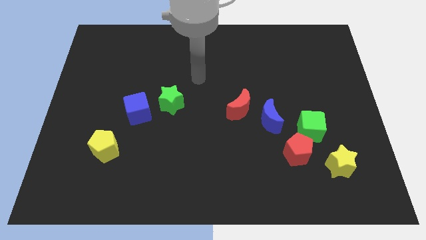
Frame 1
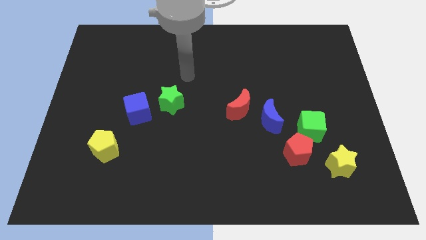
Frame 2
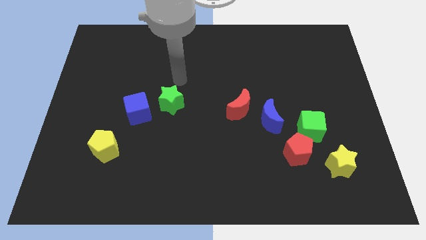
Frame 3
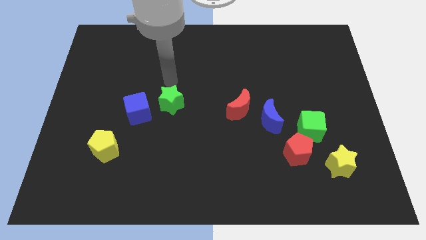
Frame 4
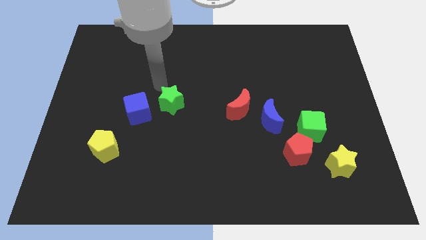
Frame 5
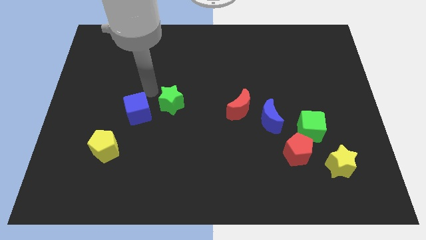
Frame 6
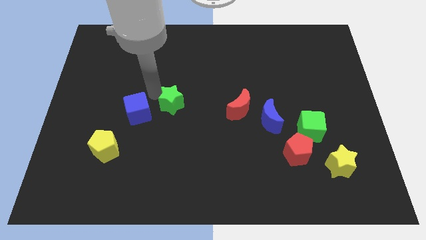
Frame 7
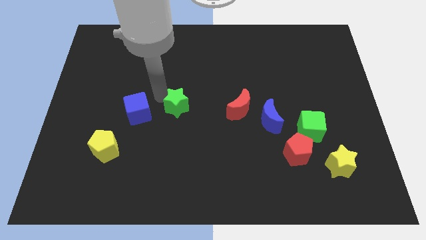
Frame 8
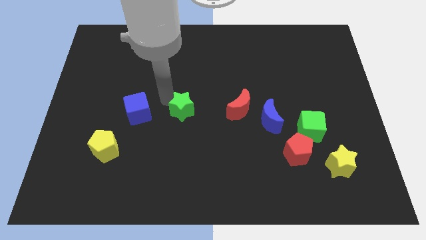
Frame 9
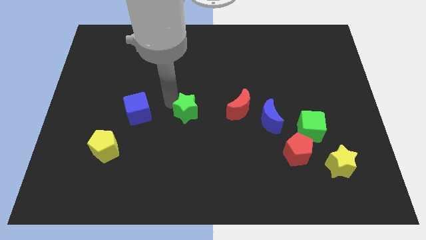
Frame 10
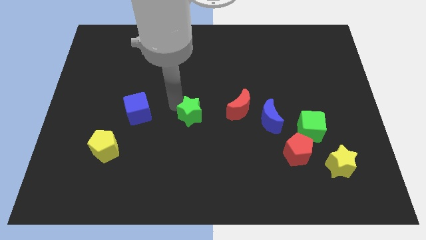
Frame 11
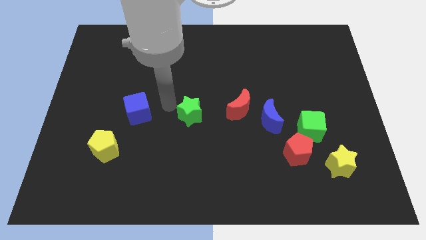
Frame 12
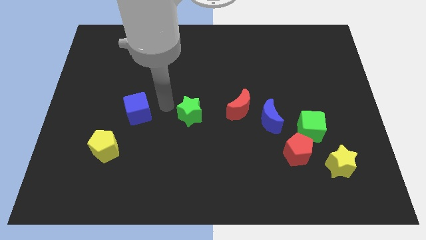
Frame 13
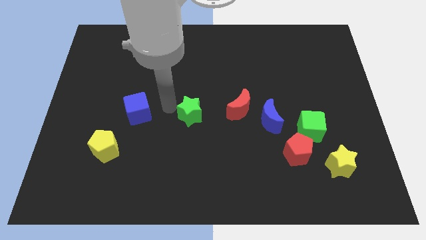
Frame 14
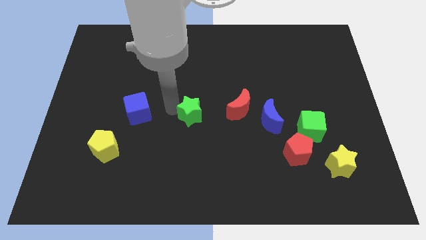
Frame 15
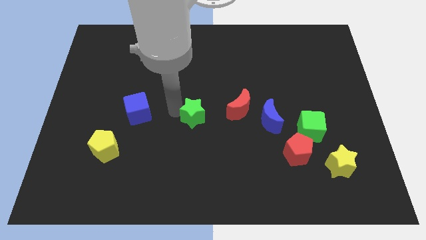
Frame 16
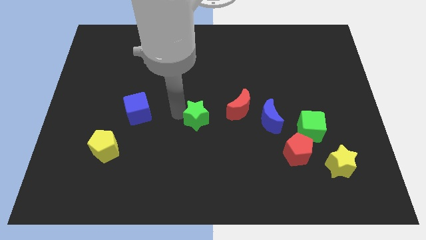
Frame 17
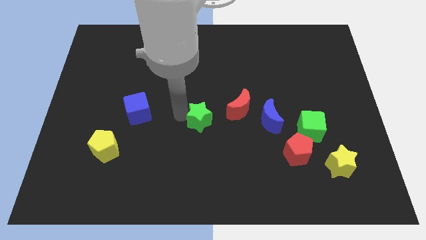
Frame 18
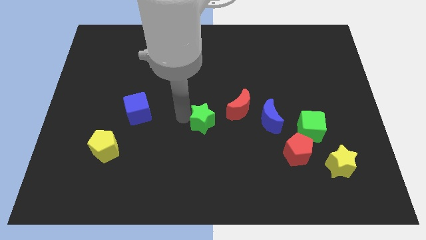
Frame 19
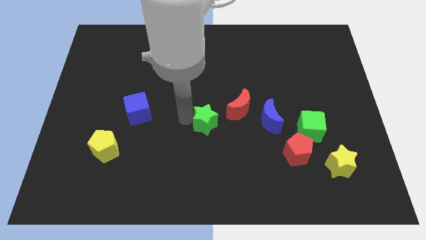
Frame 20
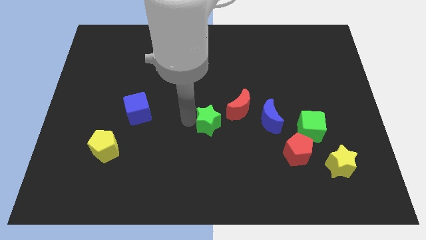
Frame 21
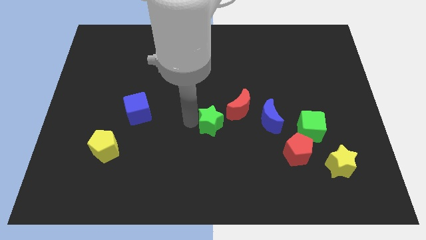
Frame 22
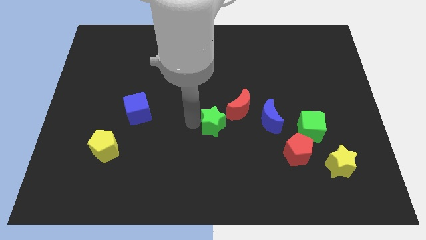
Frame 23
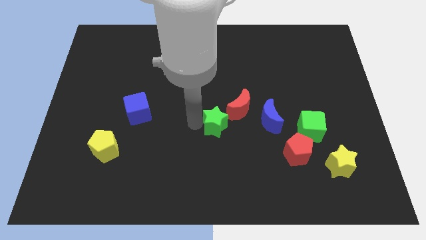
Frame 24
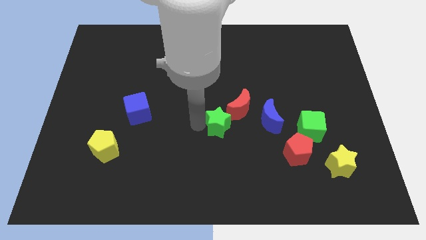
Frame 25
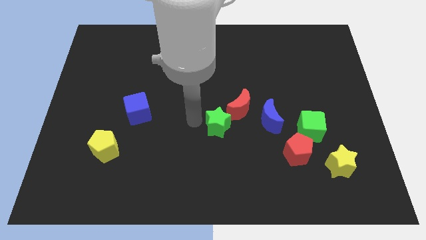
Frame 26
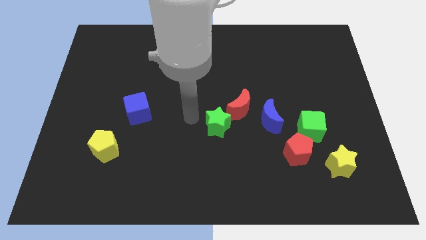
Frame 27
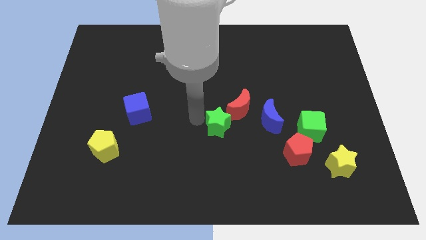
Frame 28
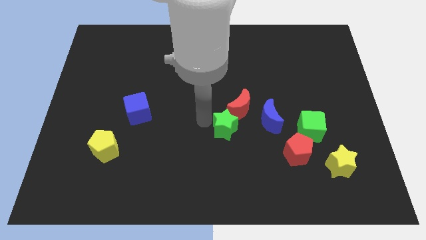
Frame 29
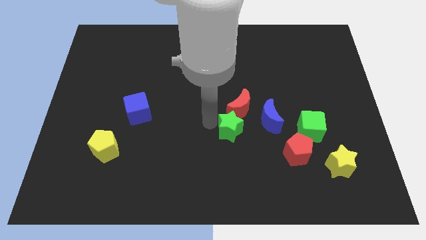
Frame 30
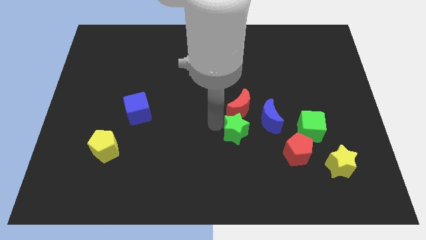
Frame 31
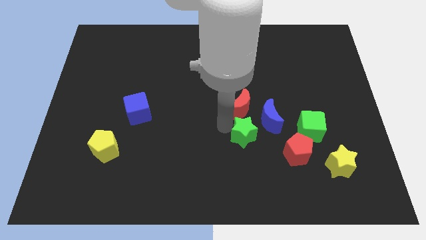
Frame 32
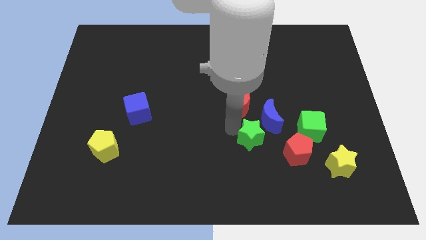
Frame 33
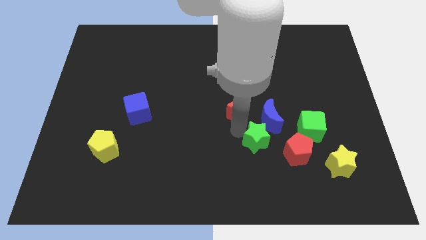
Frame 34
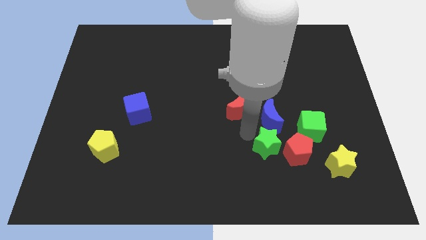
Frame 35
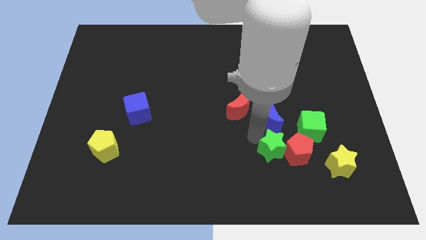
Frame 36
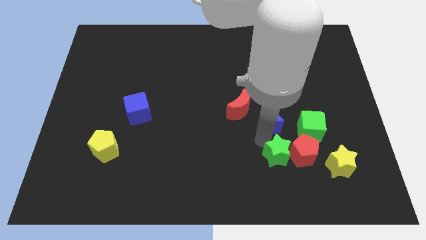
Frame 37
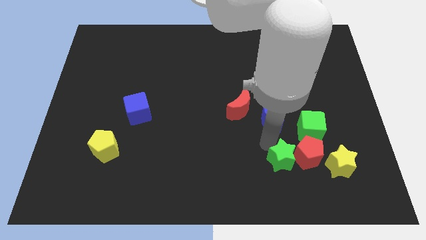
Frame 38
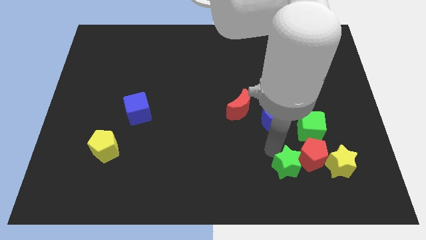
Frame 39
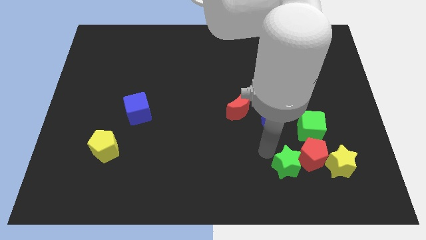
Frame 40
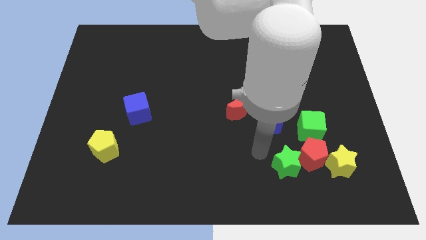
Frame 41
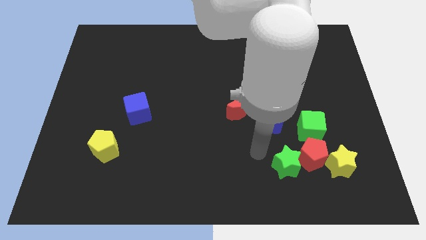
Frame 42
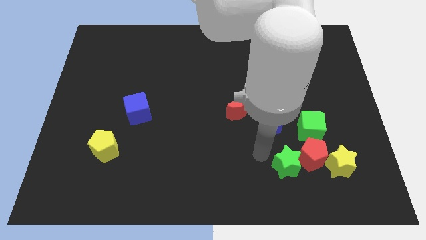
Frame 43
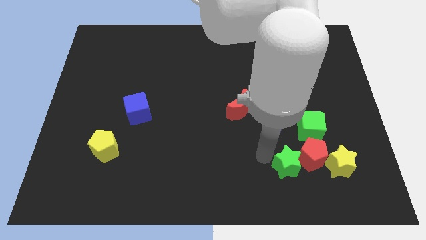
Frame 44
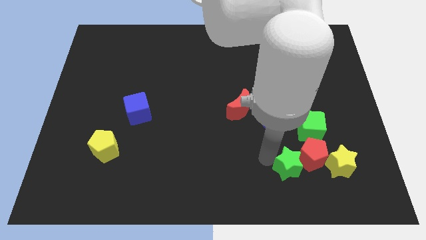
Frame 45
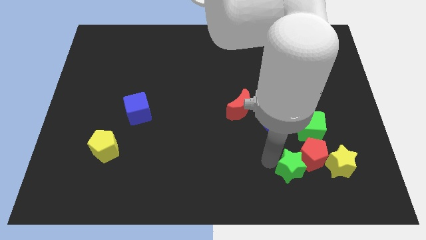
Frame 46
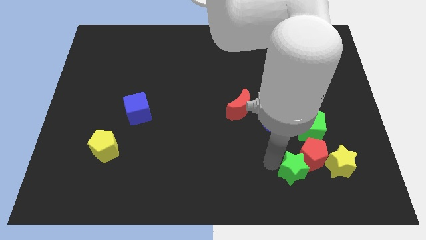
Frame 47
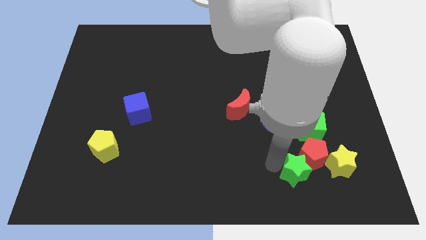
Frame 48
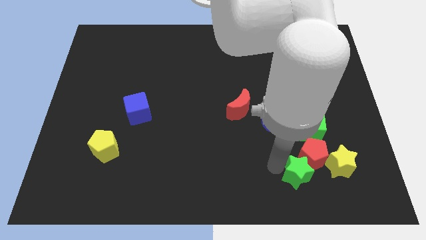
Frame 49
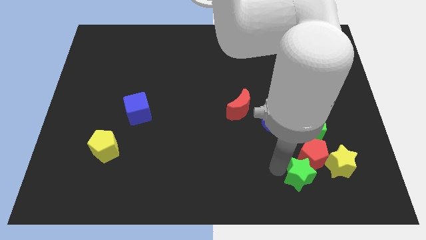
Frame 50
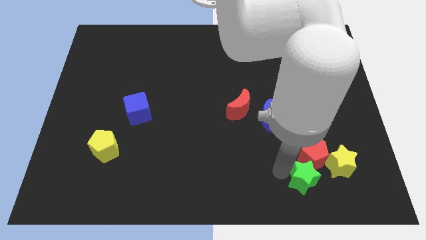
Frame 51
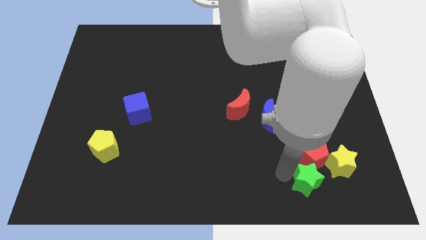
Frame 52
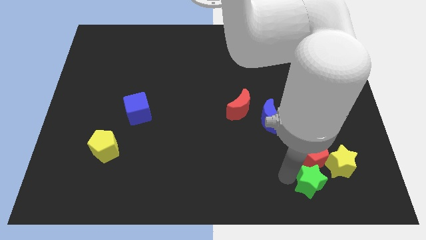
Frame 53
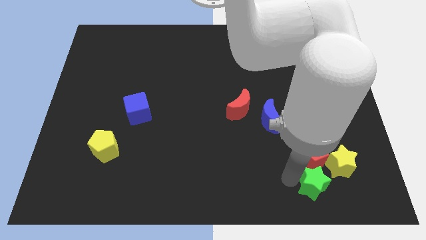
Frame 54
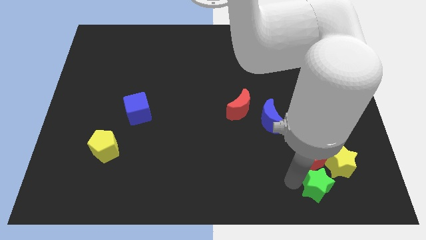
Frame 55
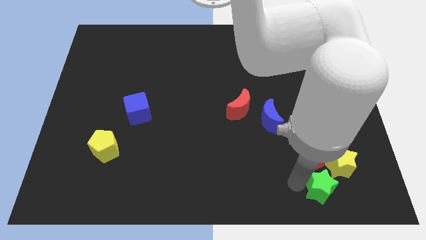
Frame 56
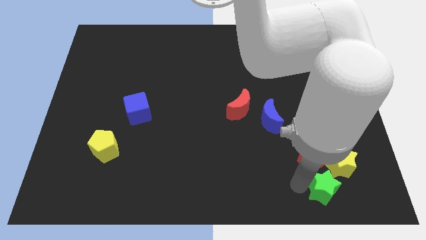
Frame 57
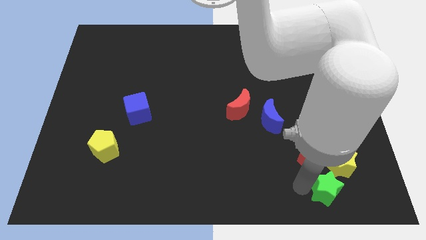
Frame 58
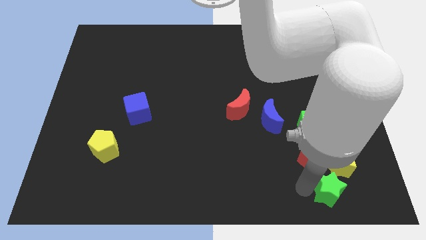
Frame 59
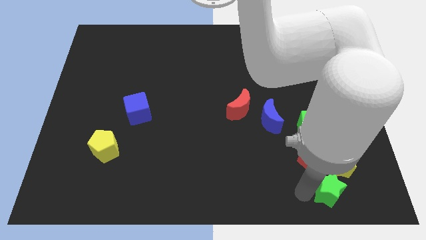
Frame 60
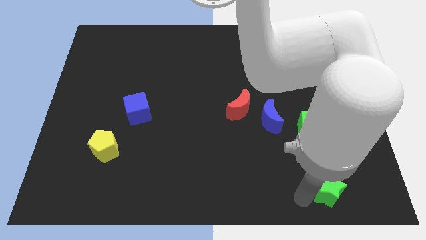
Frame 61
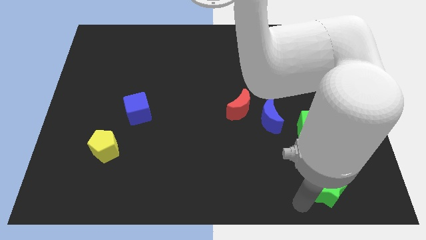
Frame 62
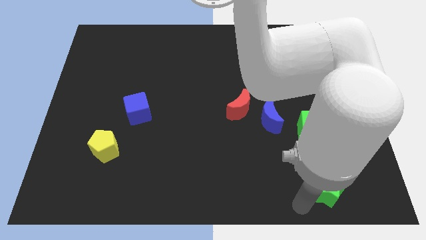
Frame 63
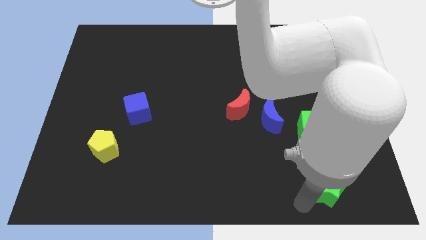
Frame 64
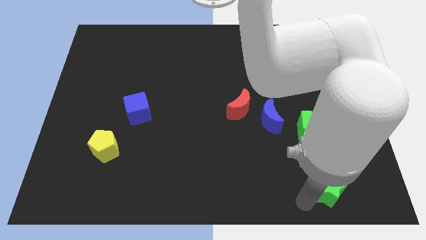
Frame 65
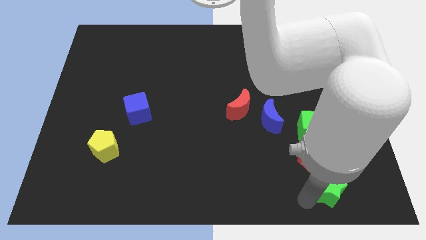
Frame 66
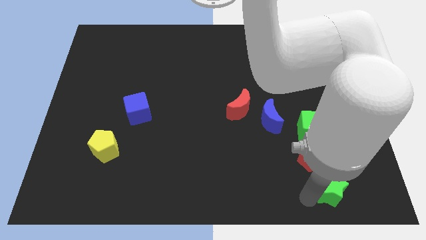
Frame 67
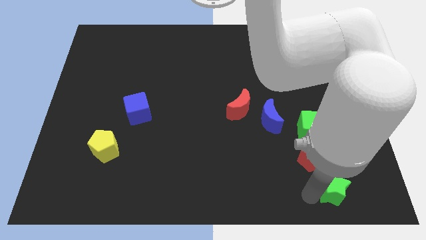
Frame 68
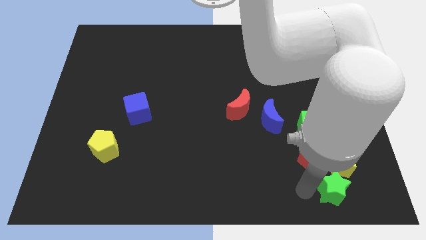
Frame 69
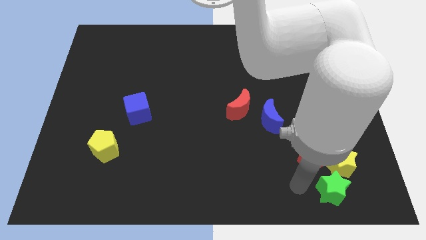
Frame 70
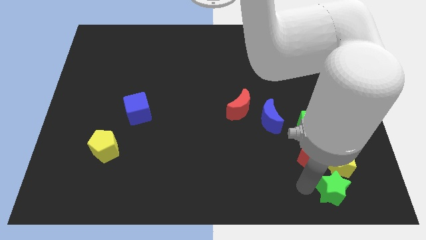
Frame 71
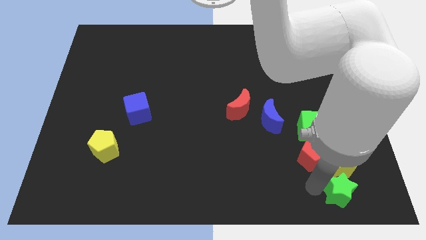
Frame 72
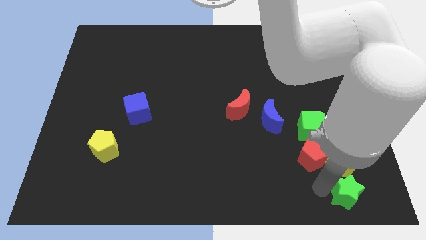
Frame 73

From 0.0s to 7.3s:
move the green star to the bottom right

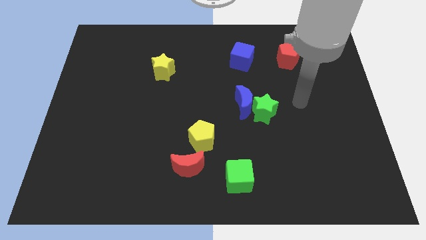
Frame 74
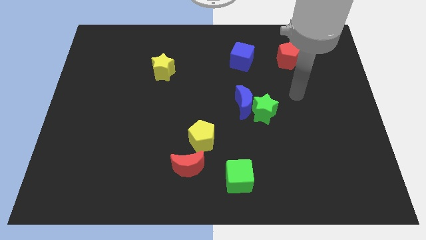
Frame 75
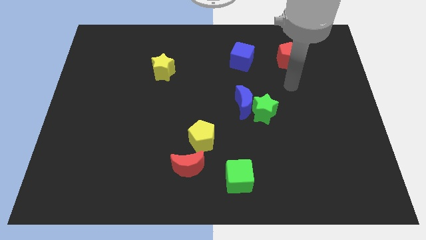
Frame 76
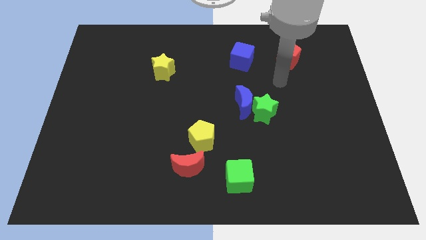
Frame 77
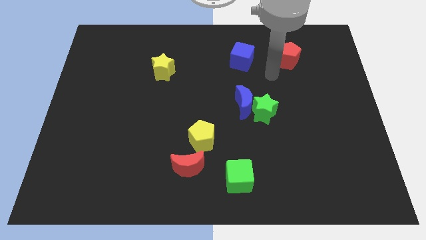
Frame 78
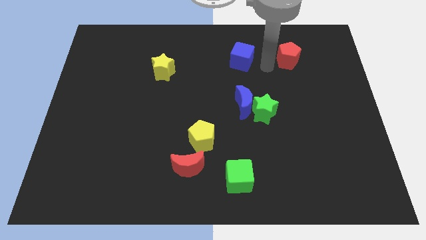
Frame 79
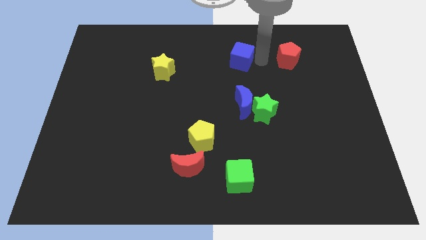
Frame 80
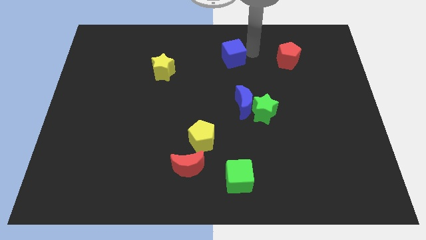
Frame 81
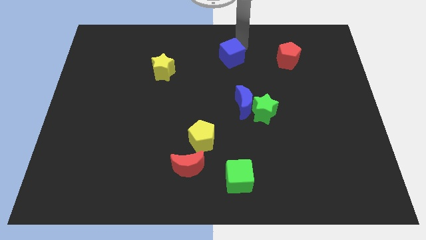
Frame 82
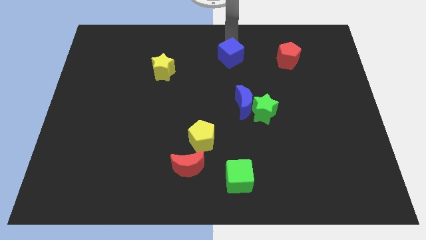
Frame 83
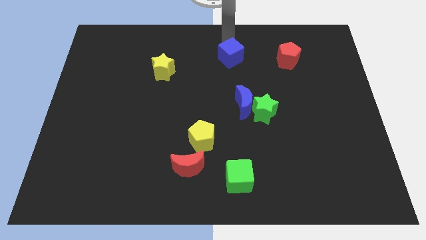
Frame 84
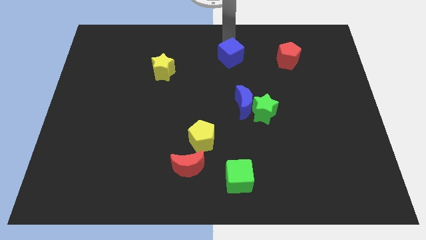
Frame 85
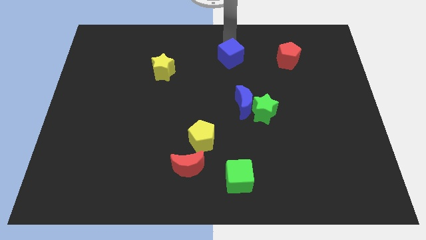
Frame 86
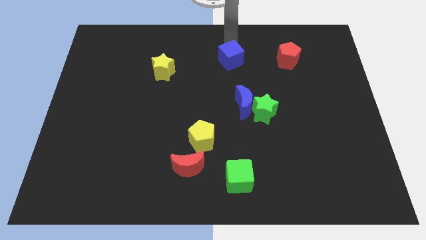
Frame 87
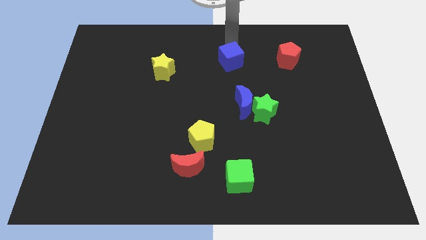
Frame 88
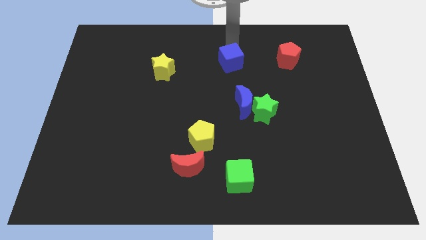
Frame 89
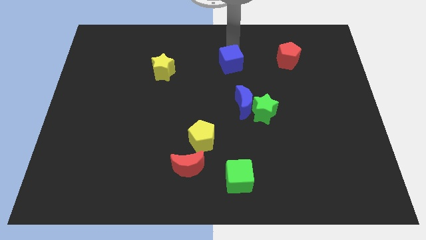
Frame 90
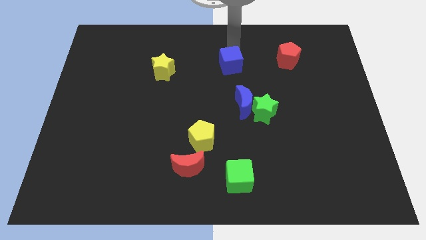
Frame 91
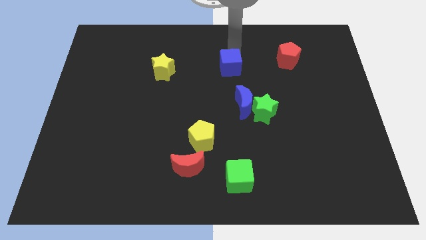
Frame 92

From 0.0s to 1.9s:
slide the blue cube to the middle of the board
